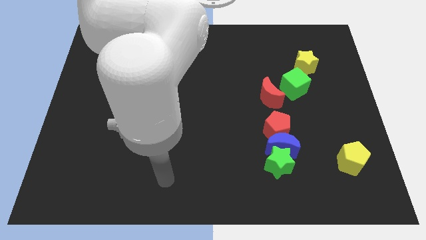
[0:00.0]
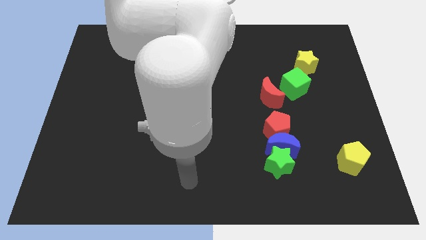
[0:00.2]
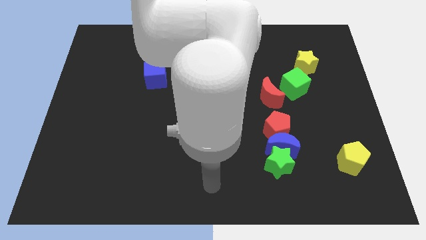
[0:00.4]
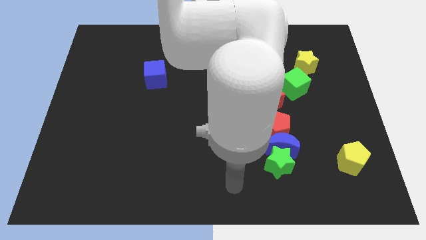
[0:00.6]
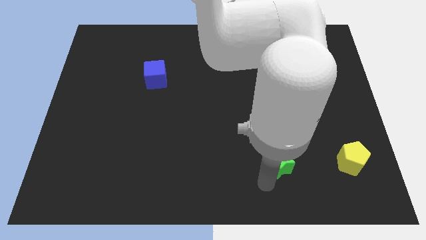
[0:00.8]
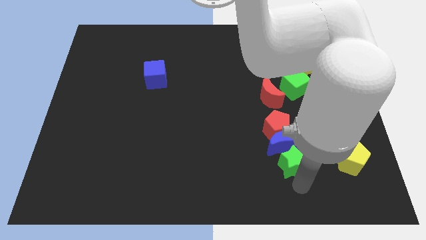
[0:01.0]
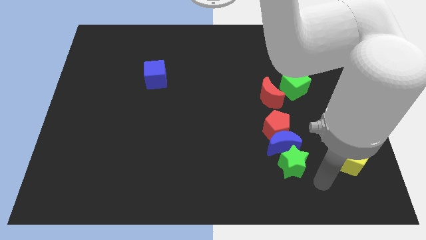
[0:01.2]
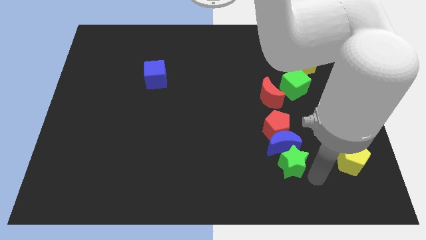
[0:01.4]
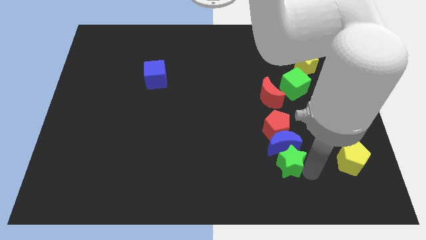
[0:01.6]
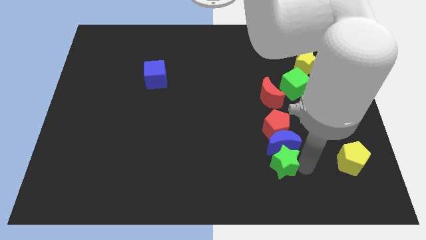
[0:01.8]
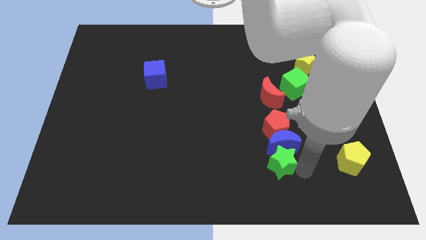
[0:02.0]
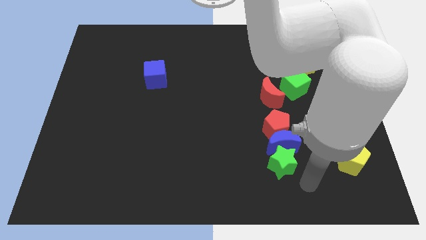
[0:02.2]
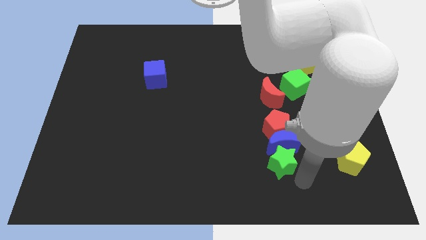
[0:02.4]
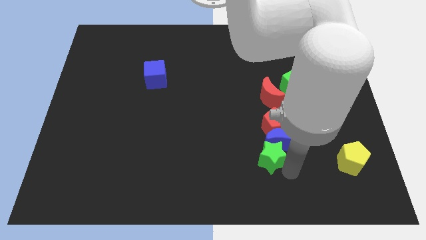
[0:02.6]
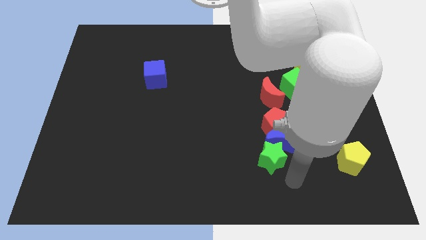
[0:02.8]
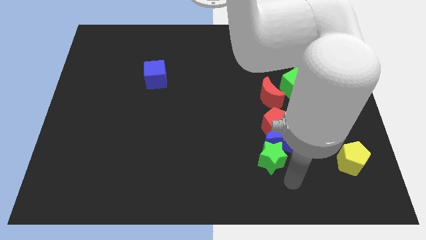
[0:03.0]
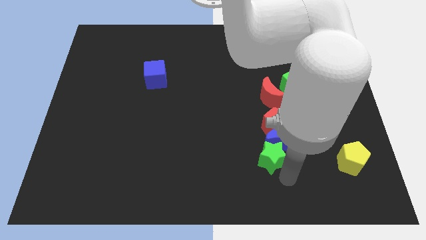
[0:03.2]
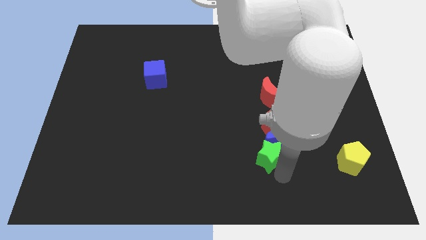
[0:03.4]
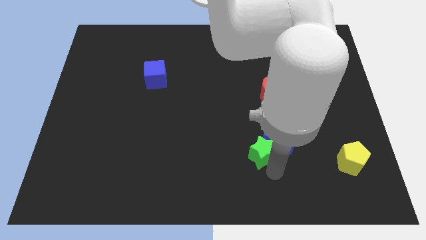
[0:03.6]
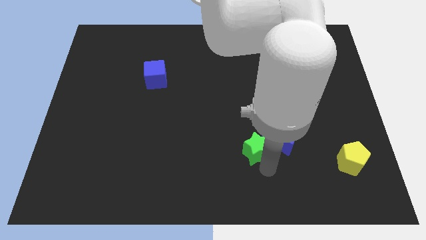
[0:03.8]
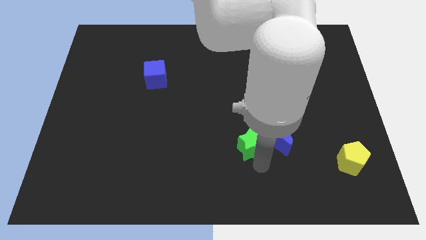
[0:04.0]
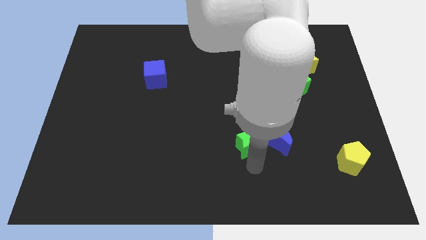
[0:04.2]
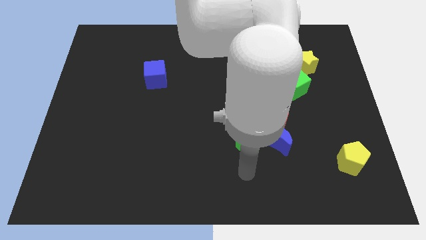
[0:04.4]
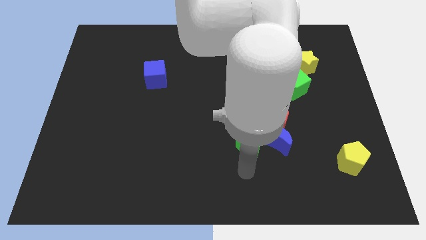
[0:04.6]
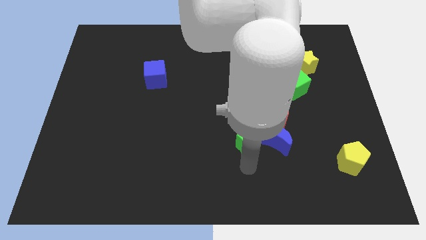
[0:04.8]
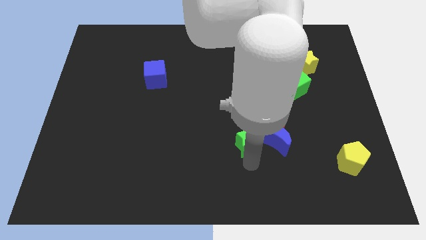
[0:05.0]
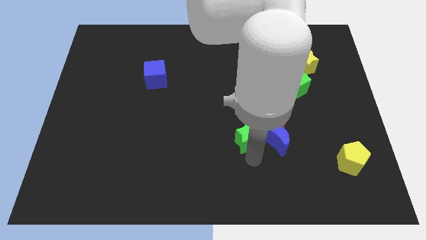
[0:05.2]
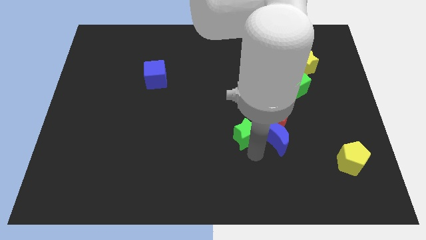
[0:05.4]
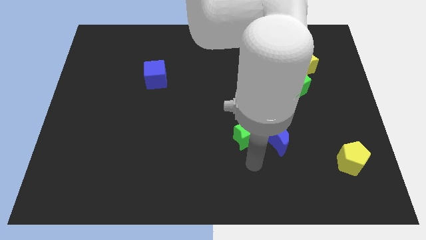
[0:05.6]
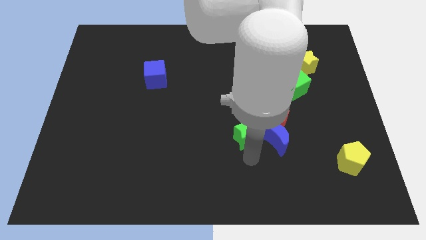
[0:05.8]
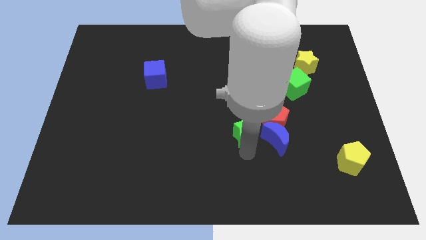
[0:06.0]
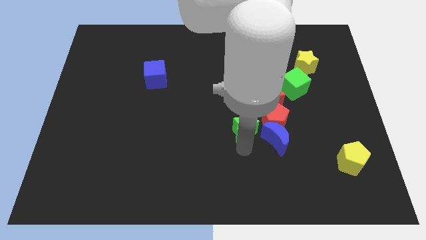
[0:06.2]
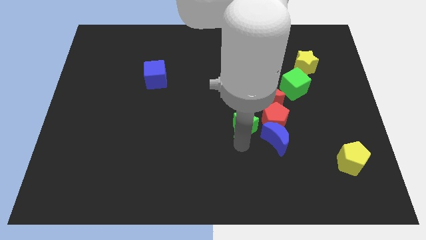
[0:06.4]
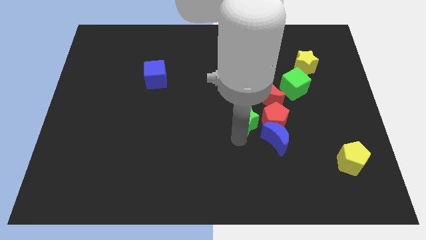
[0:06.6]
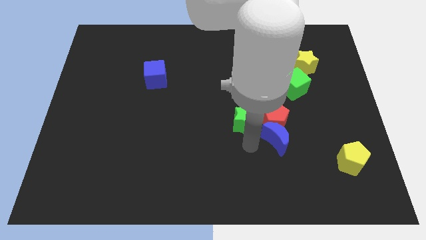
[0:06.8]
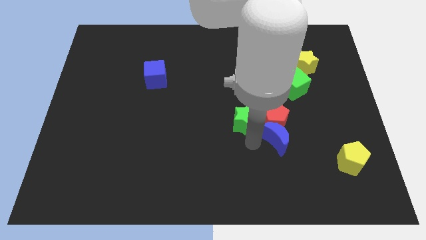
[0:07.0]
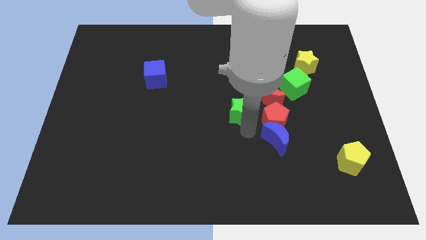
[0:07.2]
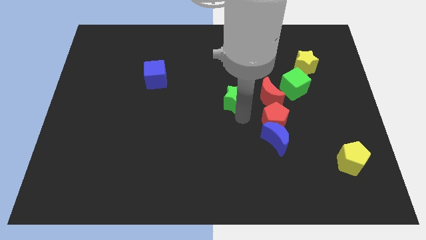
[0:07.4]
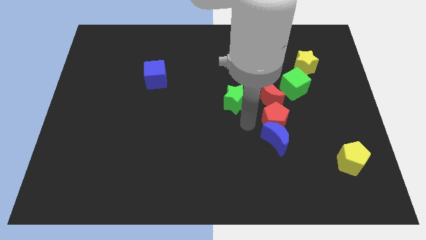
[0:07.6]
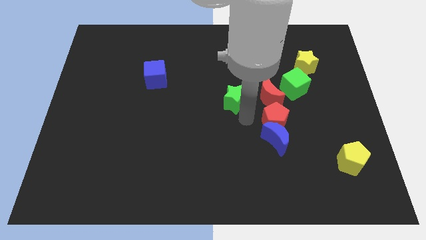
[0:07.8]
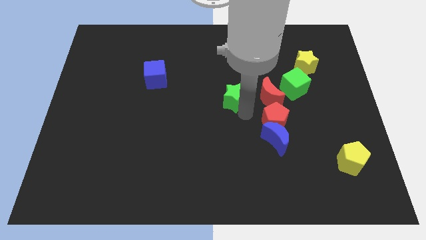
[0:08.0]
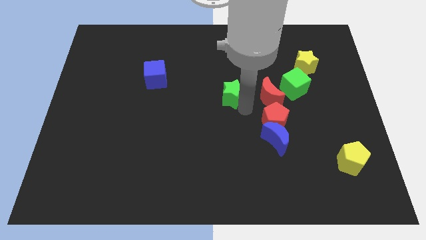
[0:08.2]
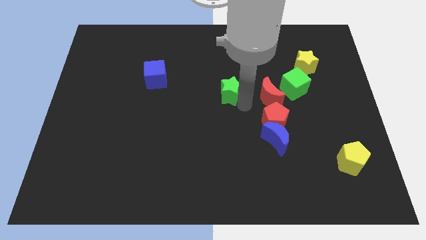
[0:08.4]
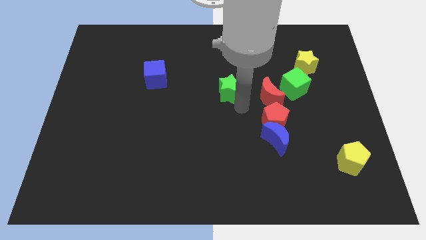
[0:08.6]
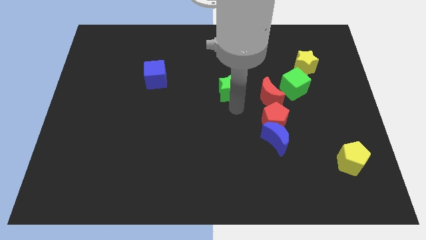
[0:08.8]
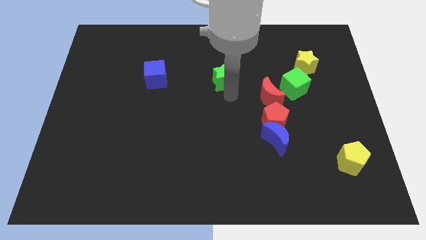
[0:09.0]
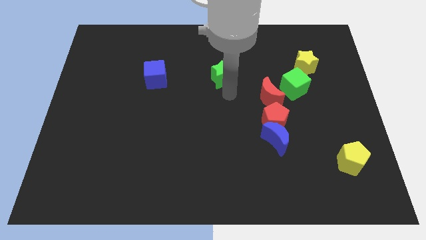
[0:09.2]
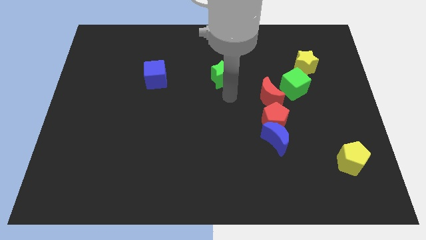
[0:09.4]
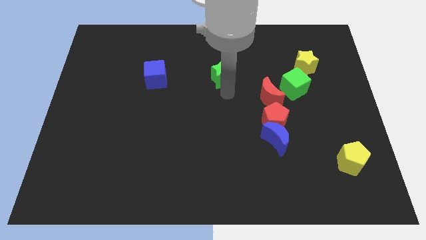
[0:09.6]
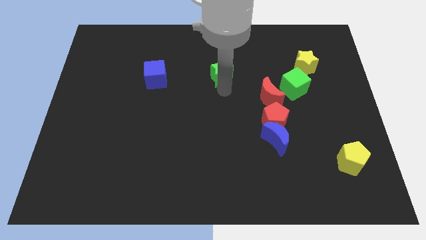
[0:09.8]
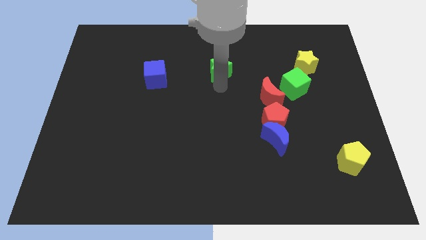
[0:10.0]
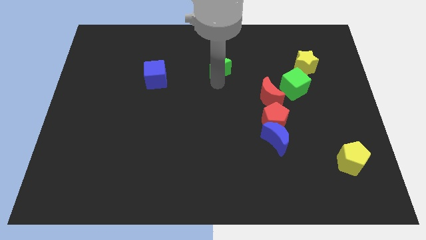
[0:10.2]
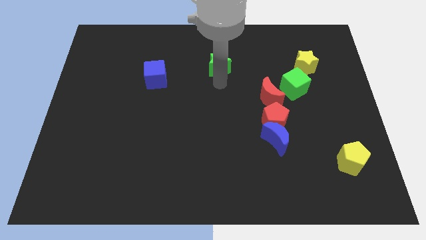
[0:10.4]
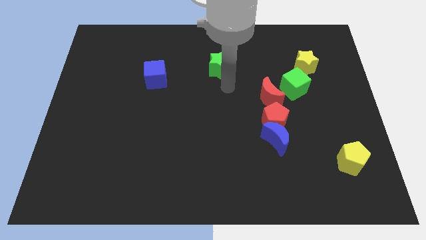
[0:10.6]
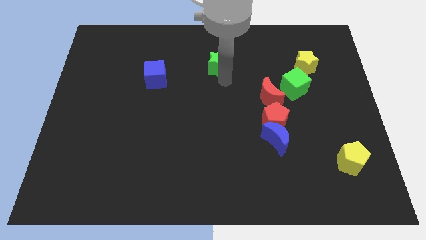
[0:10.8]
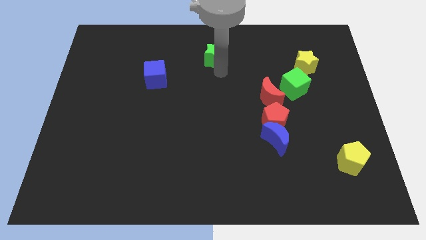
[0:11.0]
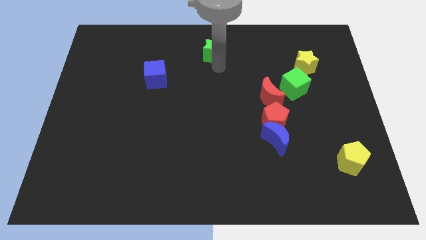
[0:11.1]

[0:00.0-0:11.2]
push the green star to the top side

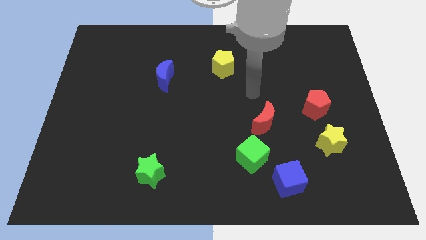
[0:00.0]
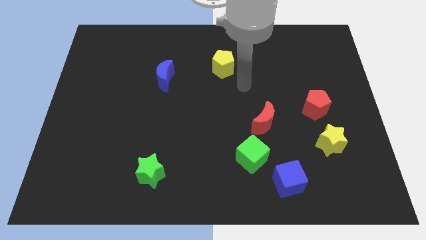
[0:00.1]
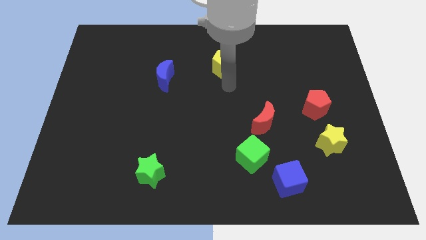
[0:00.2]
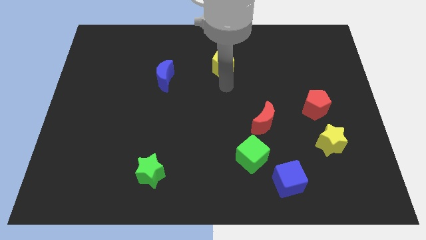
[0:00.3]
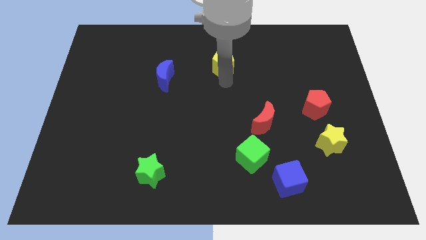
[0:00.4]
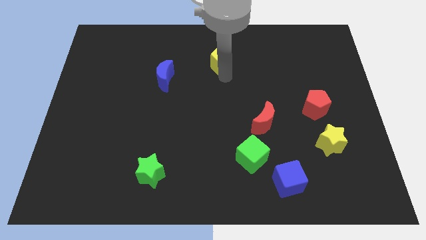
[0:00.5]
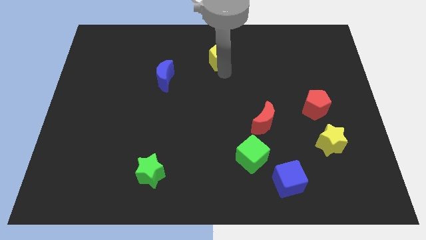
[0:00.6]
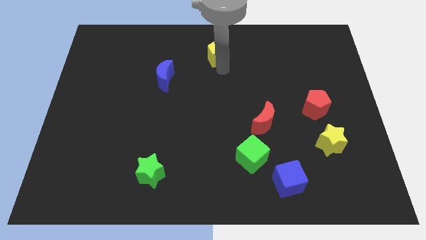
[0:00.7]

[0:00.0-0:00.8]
put the yellow pentagon to the top

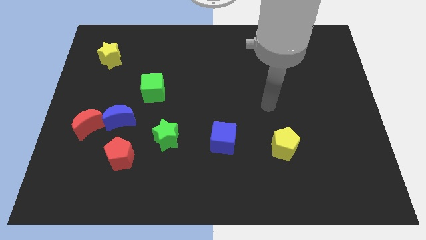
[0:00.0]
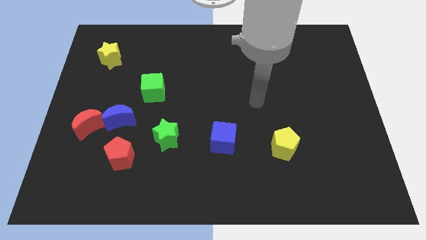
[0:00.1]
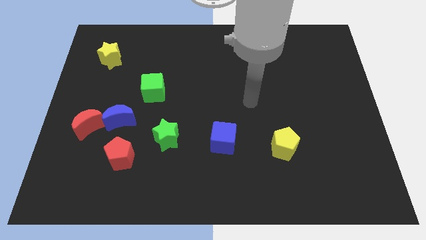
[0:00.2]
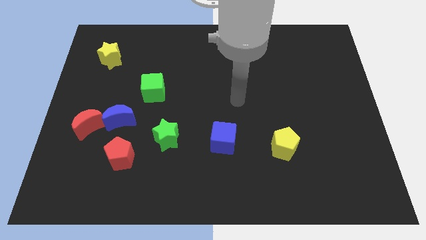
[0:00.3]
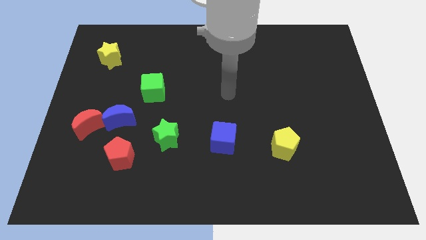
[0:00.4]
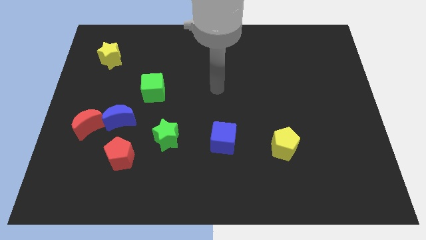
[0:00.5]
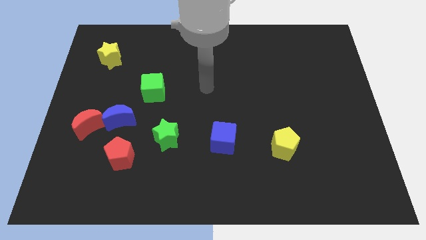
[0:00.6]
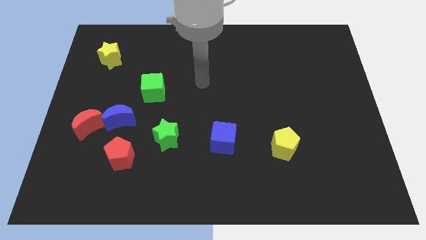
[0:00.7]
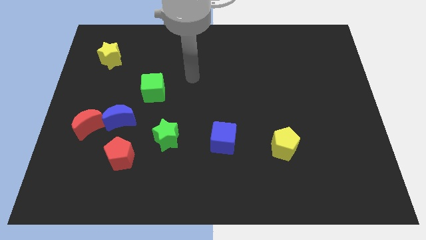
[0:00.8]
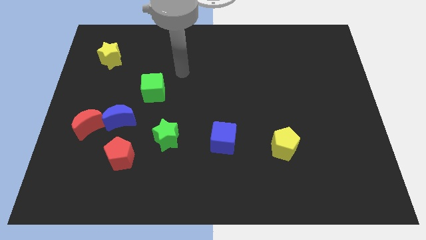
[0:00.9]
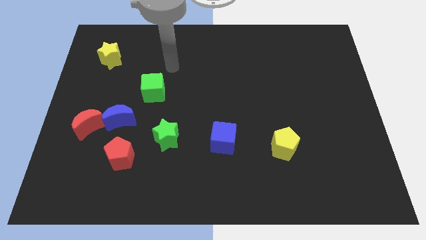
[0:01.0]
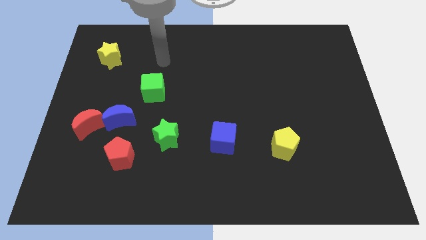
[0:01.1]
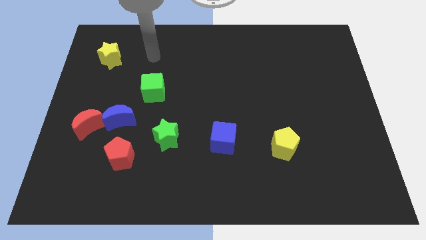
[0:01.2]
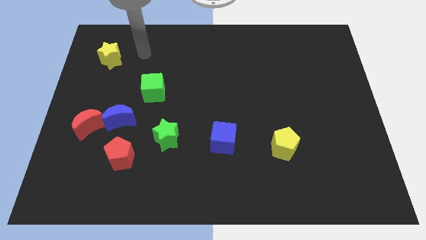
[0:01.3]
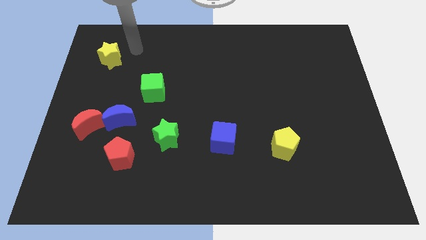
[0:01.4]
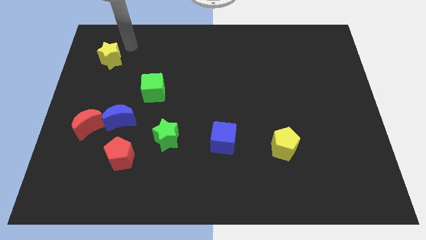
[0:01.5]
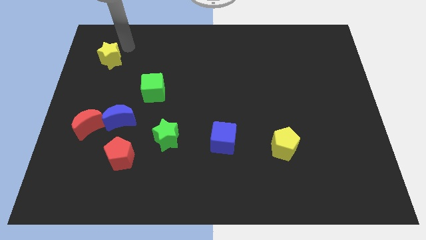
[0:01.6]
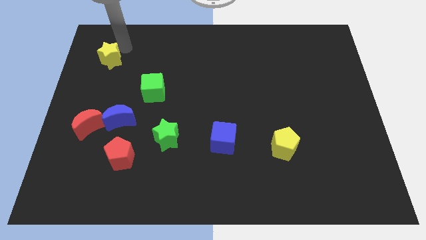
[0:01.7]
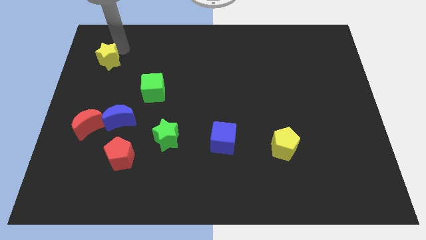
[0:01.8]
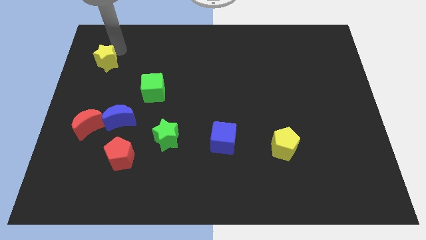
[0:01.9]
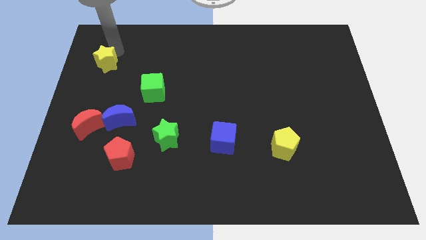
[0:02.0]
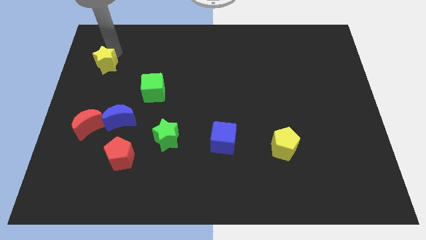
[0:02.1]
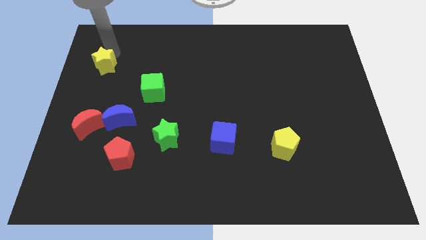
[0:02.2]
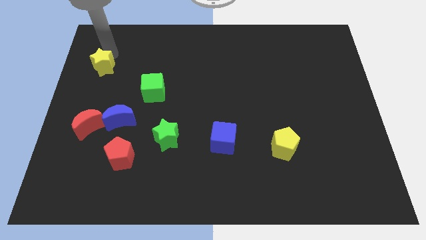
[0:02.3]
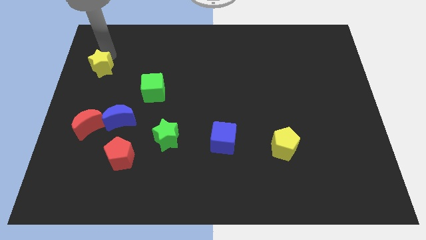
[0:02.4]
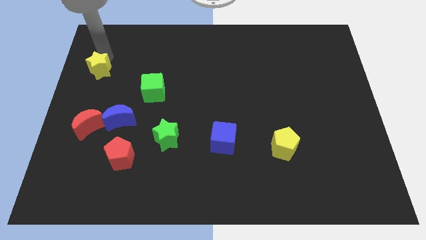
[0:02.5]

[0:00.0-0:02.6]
push the yellow star to the left side of the board
